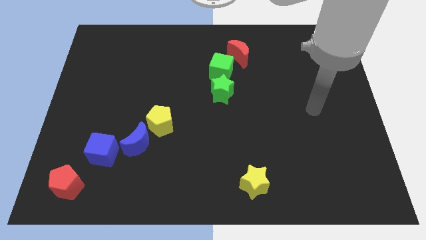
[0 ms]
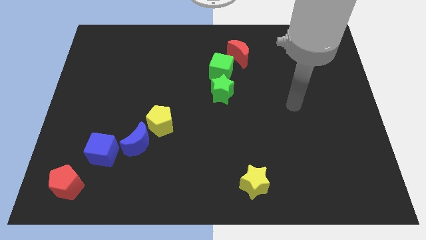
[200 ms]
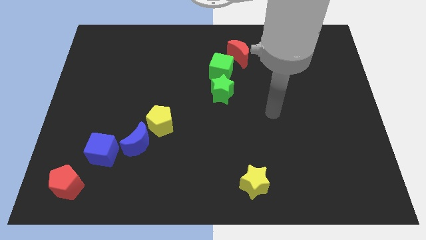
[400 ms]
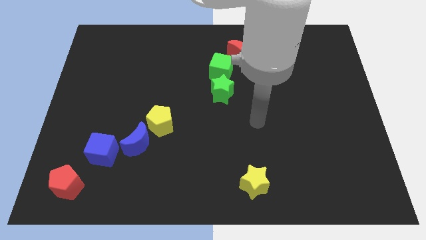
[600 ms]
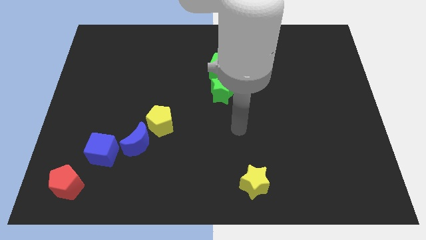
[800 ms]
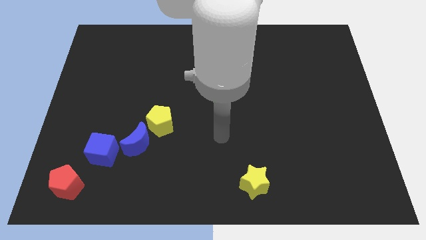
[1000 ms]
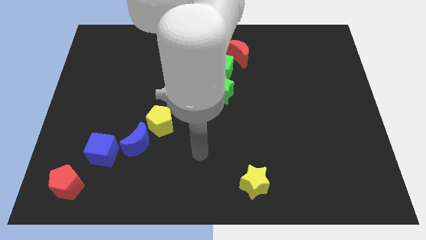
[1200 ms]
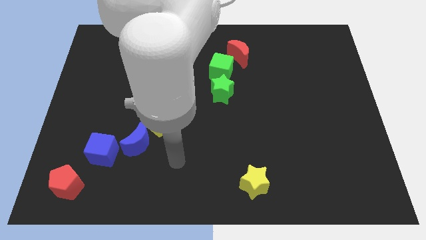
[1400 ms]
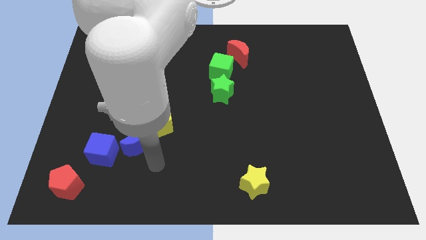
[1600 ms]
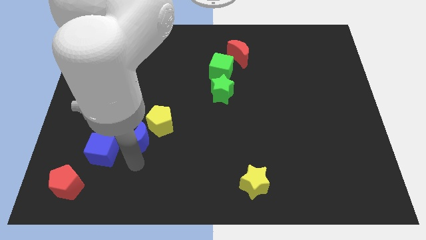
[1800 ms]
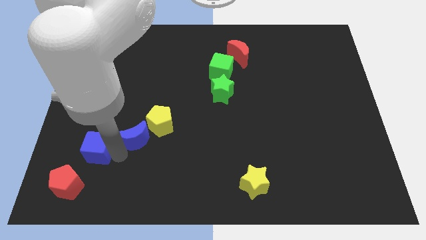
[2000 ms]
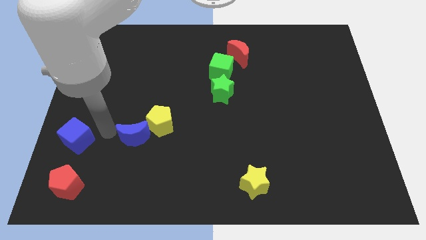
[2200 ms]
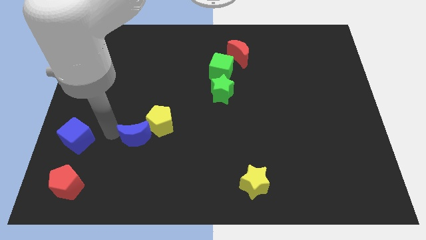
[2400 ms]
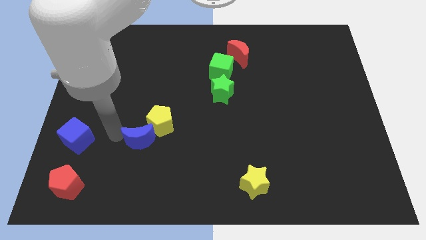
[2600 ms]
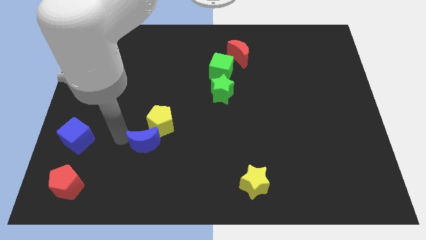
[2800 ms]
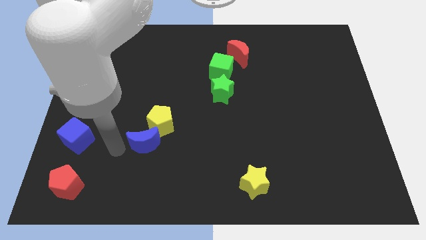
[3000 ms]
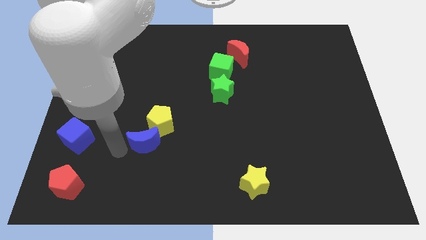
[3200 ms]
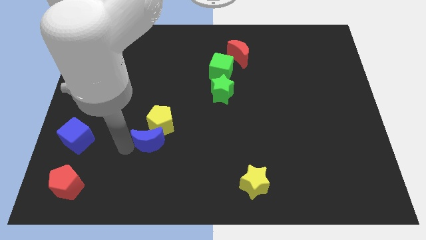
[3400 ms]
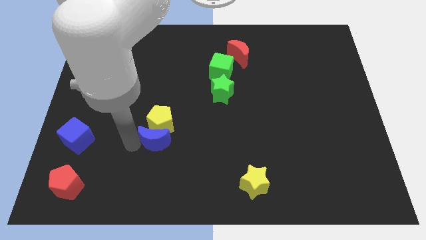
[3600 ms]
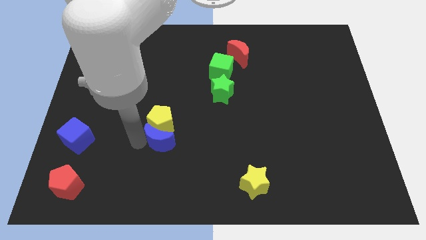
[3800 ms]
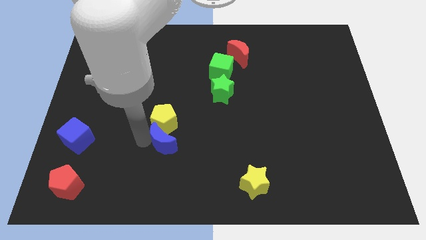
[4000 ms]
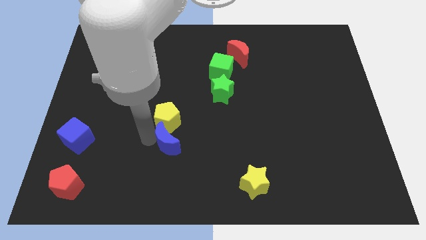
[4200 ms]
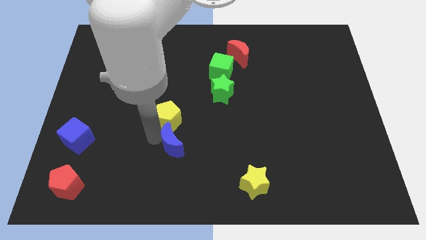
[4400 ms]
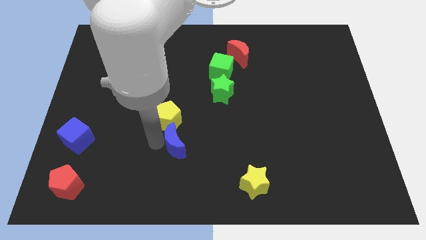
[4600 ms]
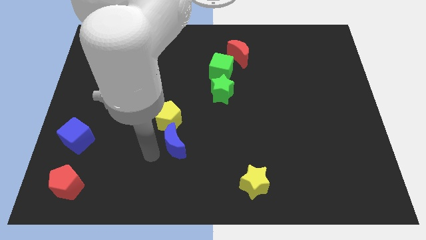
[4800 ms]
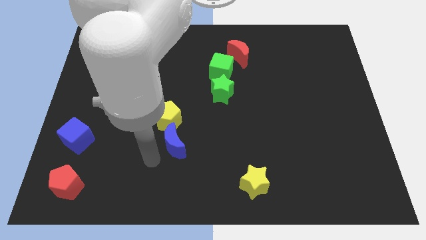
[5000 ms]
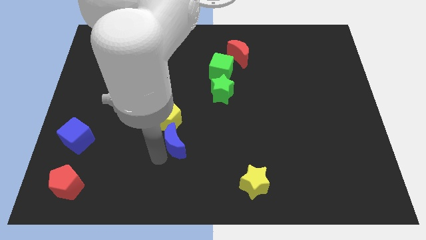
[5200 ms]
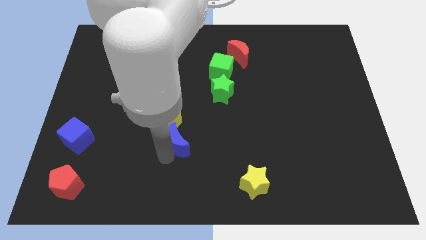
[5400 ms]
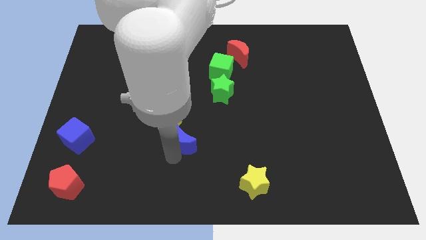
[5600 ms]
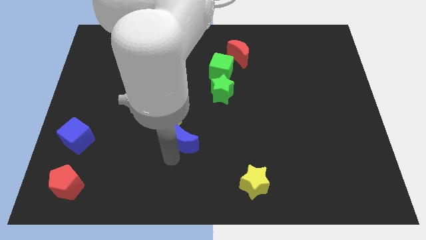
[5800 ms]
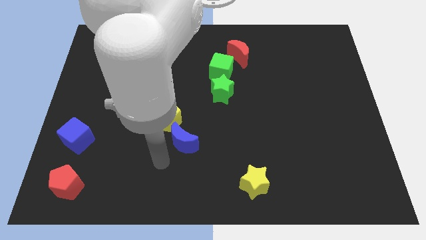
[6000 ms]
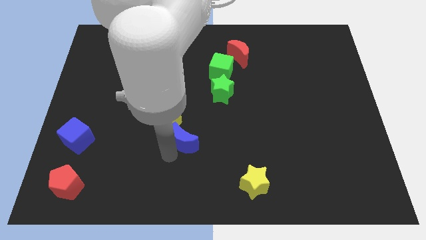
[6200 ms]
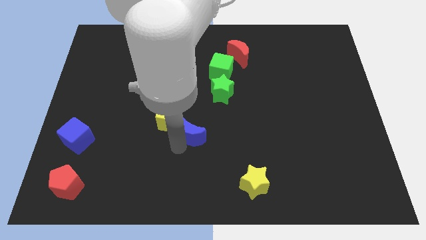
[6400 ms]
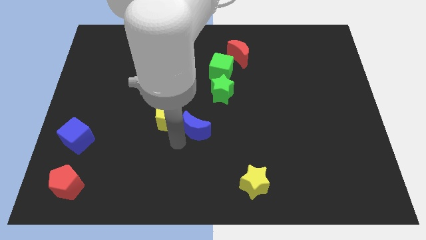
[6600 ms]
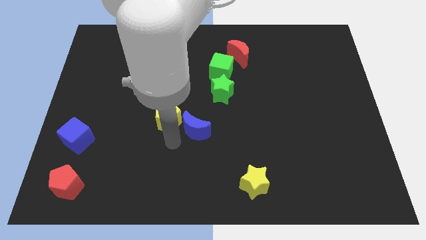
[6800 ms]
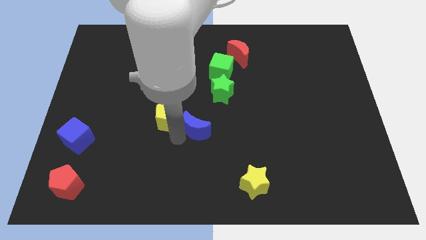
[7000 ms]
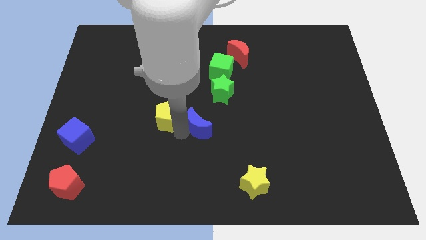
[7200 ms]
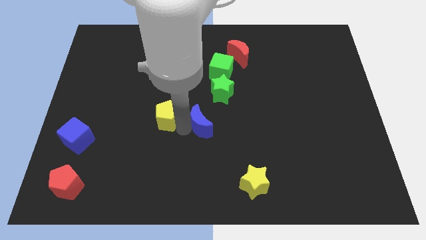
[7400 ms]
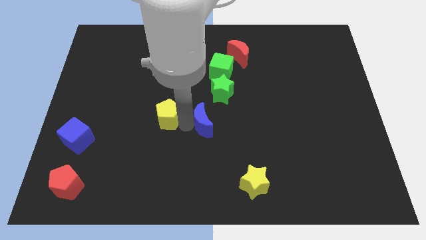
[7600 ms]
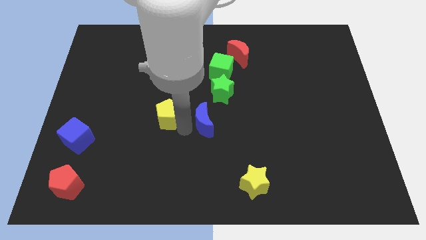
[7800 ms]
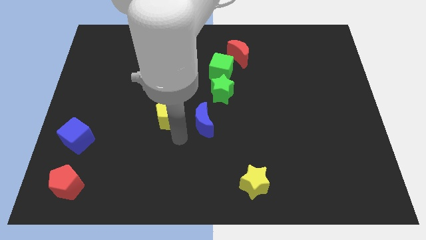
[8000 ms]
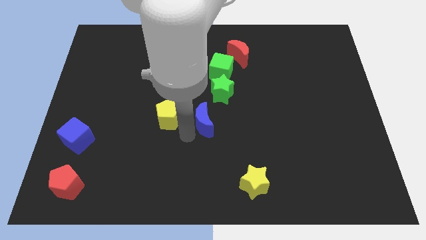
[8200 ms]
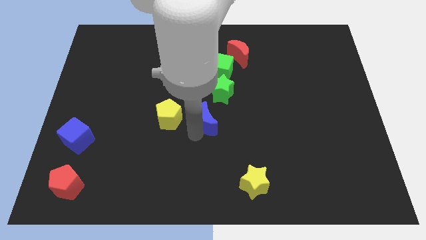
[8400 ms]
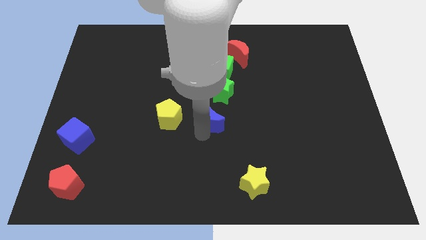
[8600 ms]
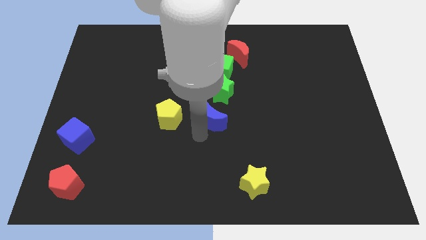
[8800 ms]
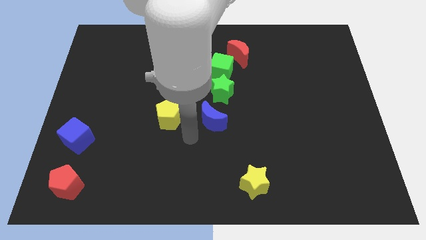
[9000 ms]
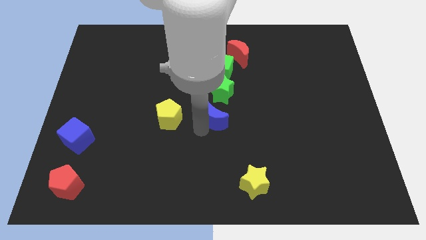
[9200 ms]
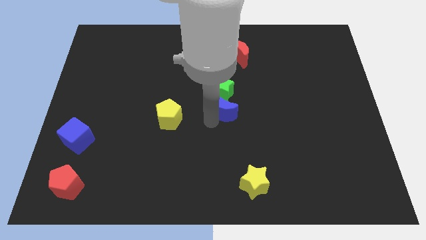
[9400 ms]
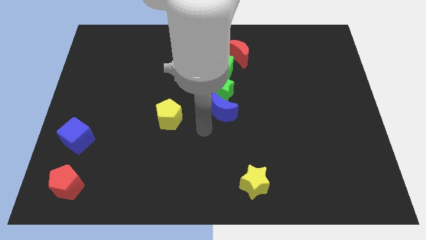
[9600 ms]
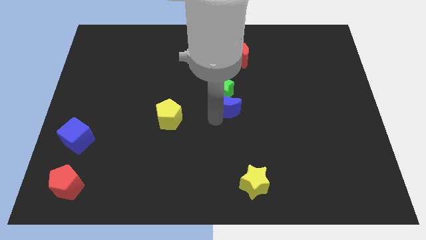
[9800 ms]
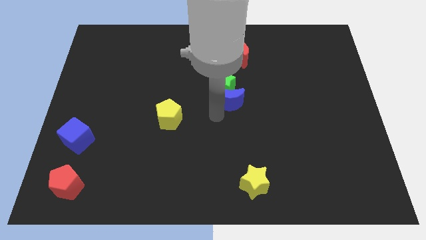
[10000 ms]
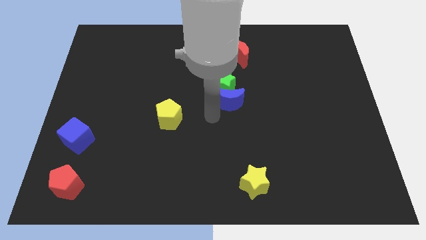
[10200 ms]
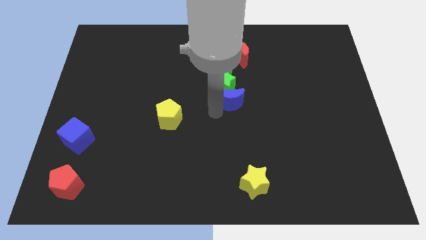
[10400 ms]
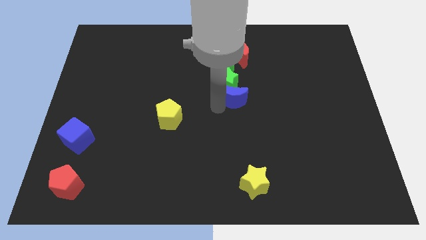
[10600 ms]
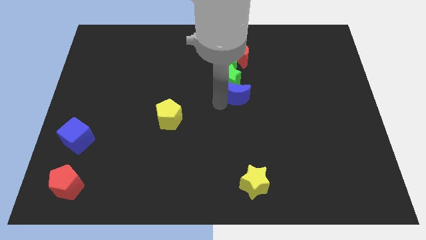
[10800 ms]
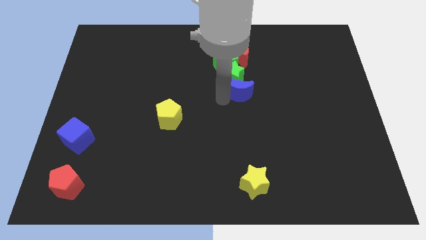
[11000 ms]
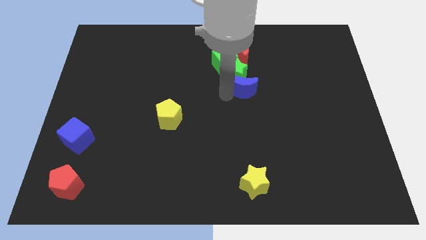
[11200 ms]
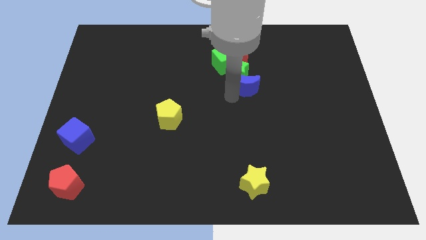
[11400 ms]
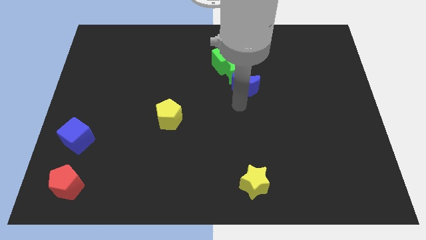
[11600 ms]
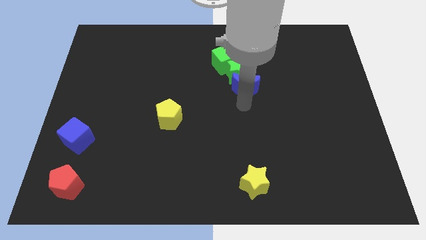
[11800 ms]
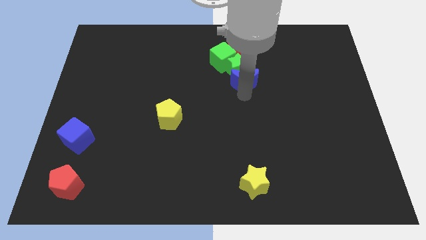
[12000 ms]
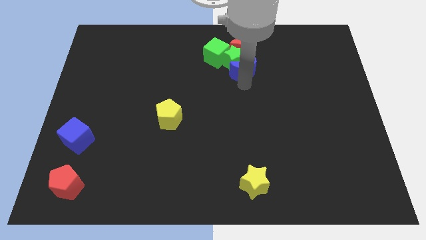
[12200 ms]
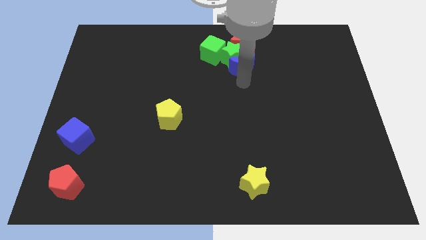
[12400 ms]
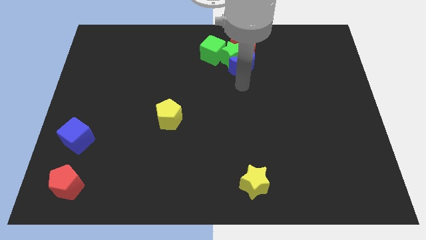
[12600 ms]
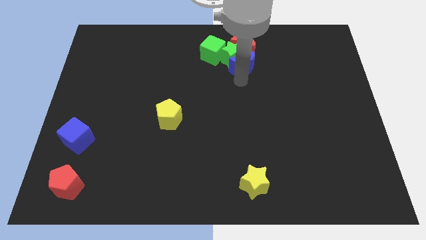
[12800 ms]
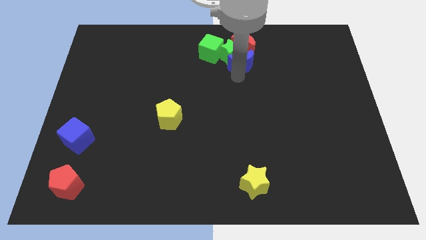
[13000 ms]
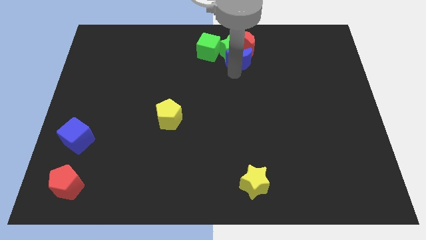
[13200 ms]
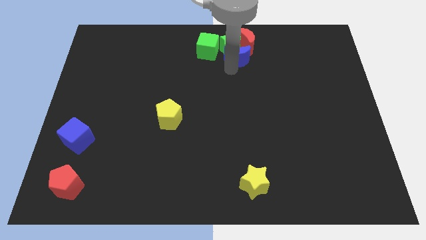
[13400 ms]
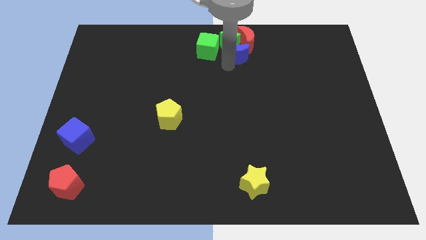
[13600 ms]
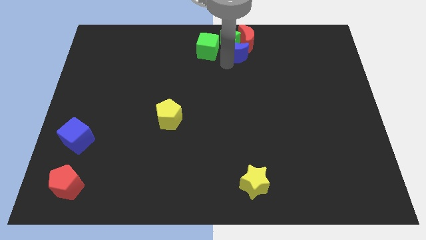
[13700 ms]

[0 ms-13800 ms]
put the blue moon to the red moon

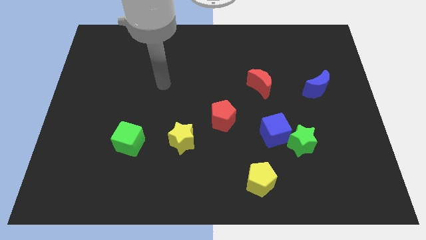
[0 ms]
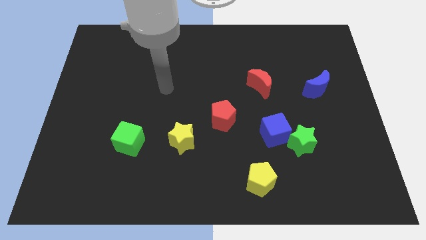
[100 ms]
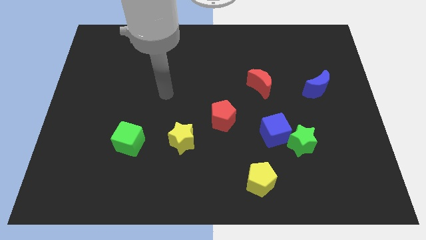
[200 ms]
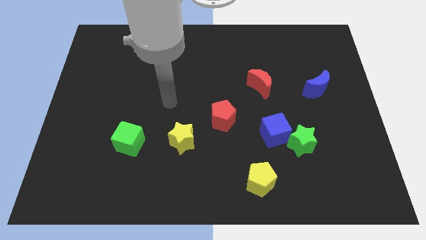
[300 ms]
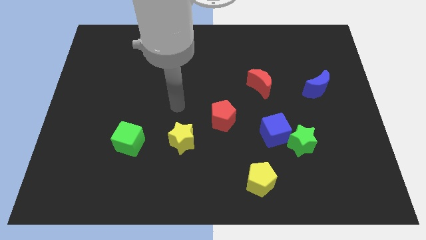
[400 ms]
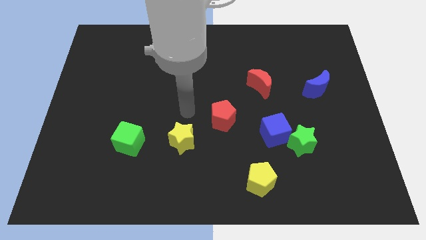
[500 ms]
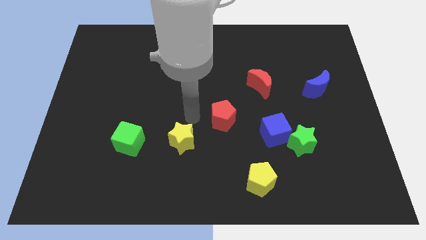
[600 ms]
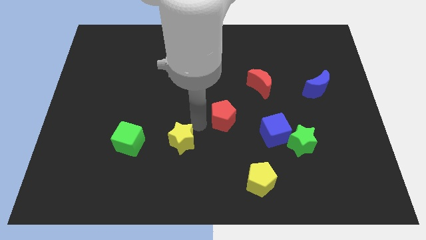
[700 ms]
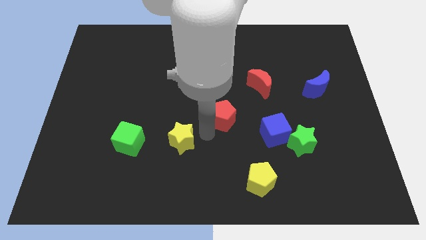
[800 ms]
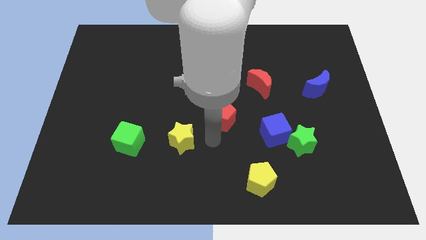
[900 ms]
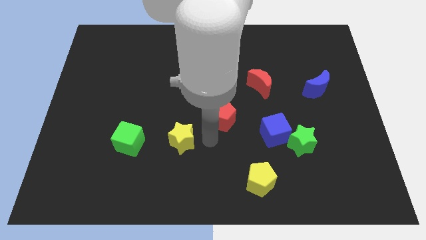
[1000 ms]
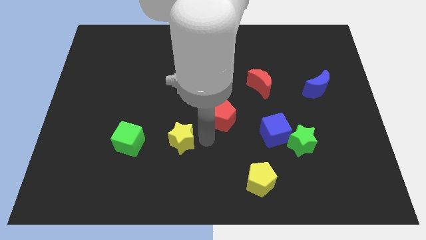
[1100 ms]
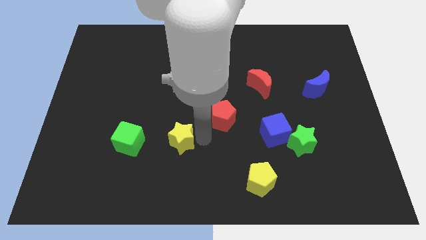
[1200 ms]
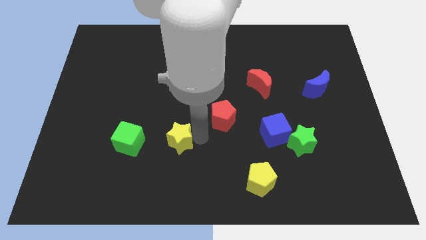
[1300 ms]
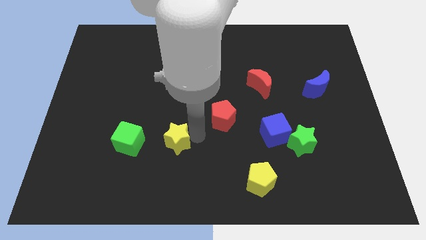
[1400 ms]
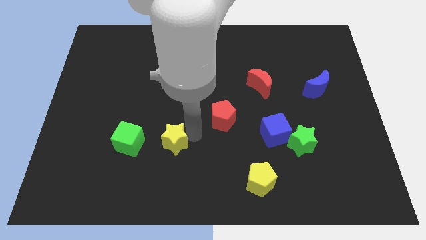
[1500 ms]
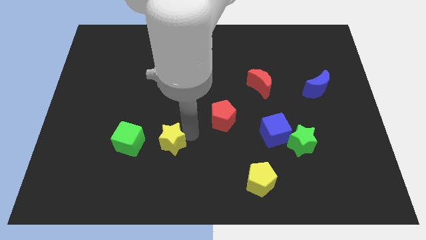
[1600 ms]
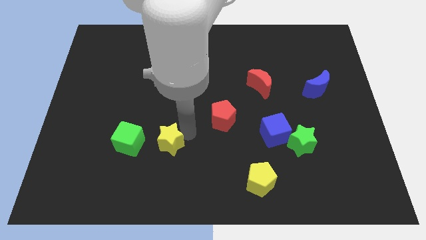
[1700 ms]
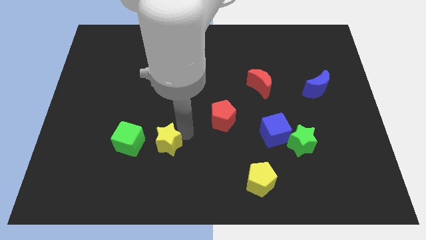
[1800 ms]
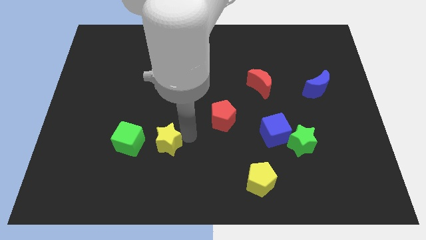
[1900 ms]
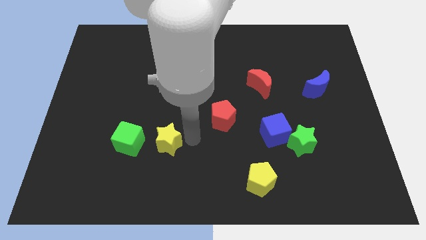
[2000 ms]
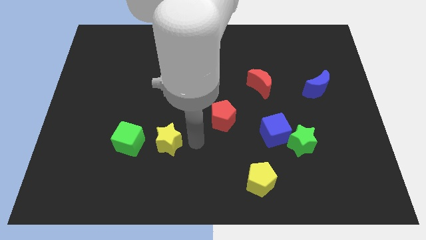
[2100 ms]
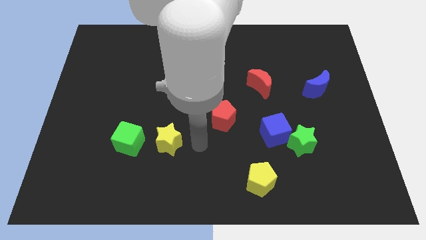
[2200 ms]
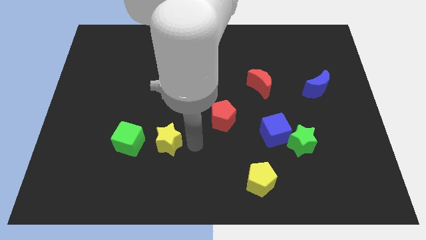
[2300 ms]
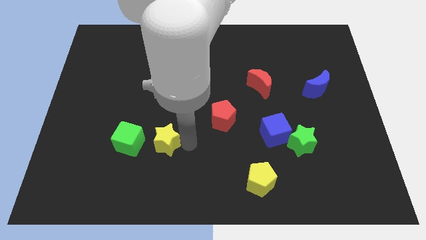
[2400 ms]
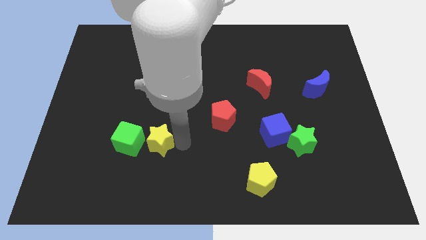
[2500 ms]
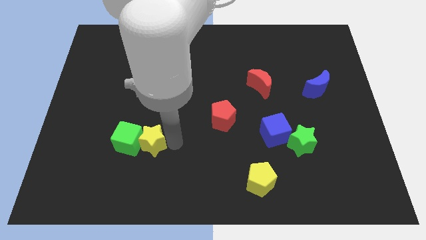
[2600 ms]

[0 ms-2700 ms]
put the yellow star close to the green cube
